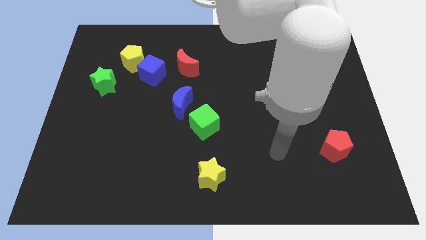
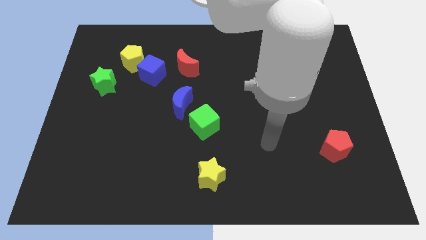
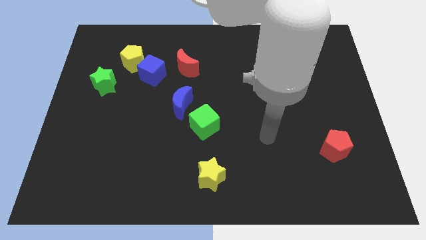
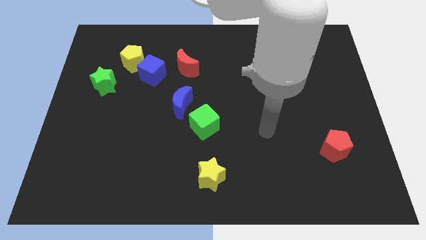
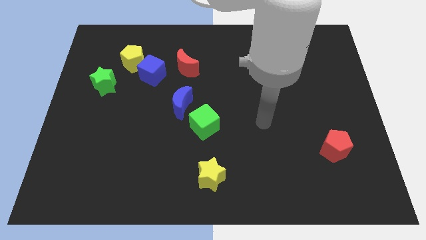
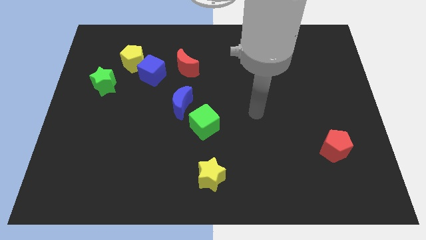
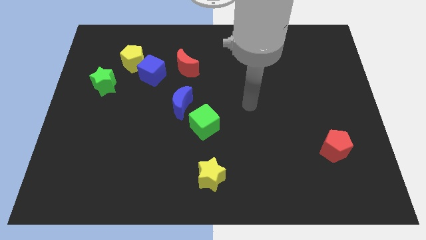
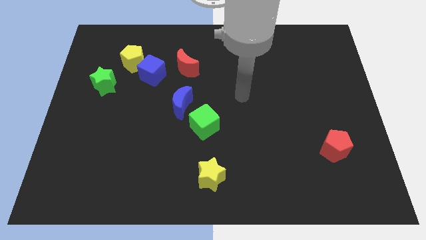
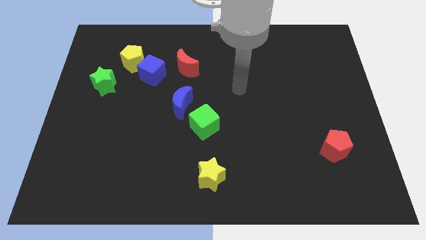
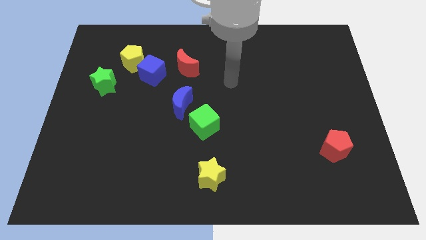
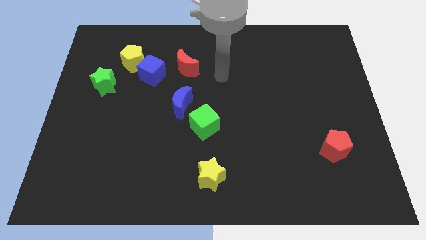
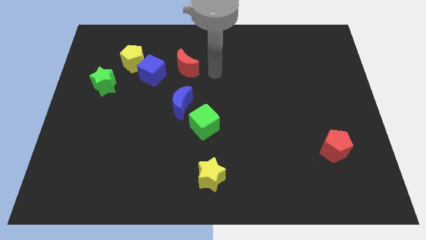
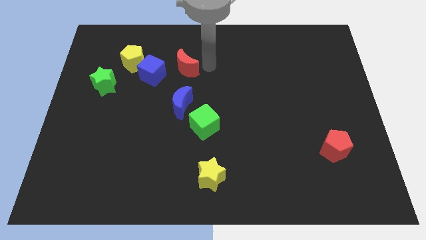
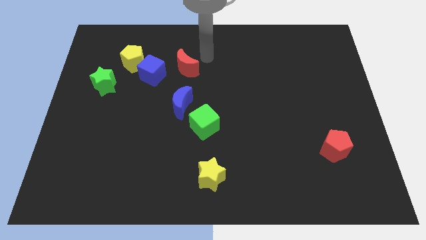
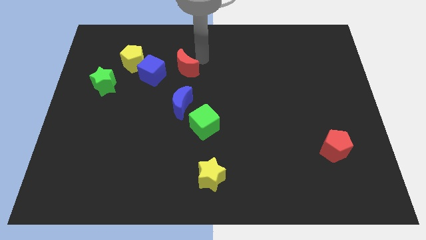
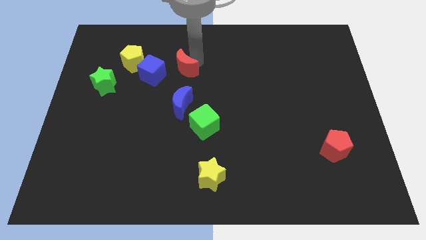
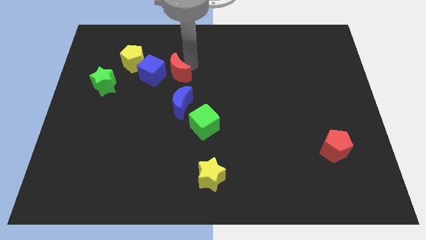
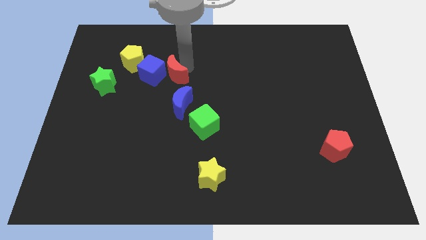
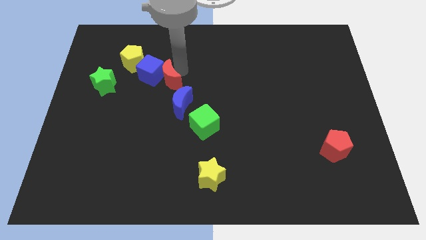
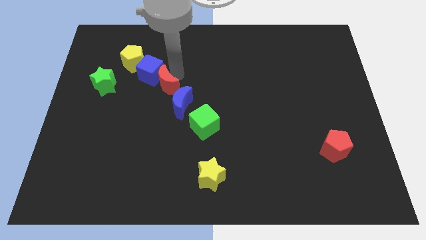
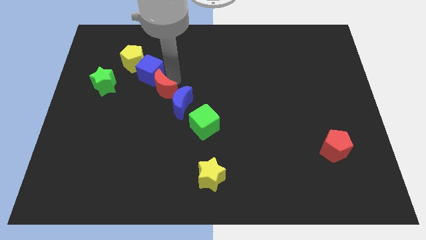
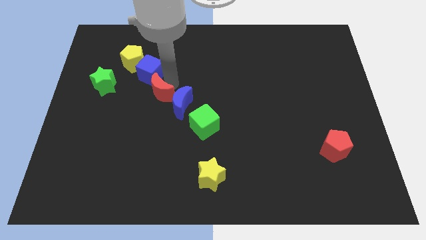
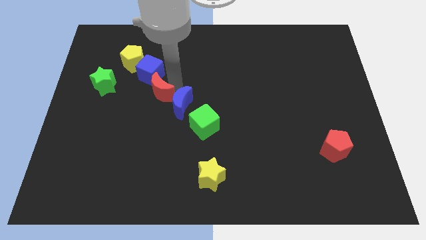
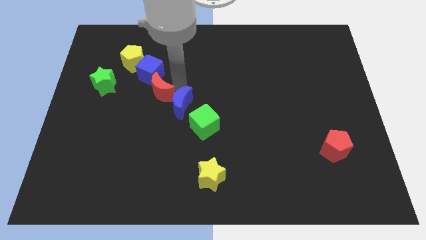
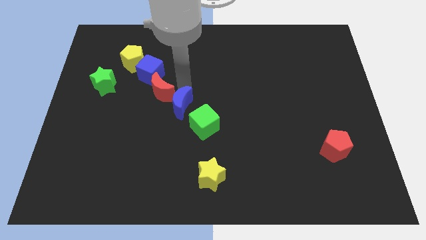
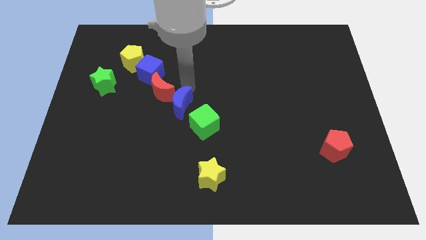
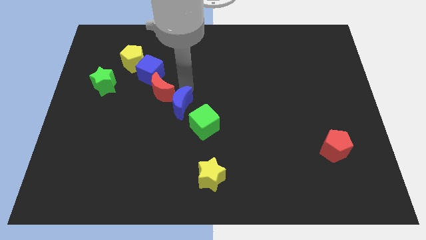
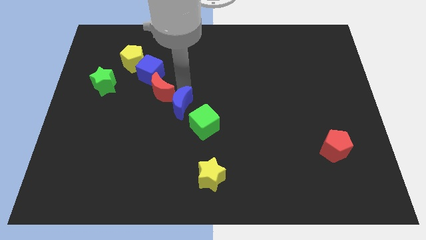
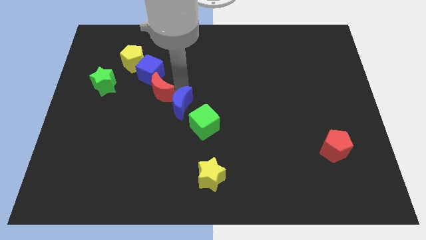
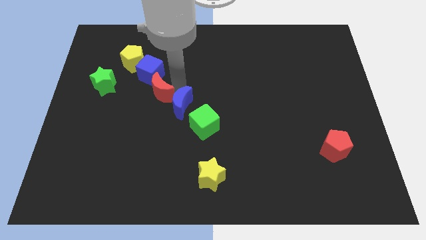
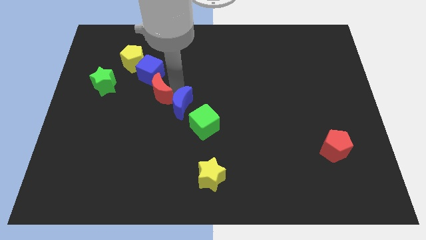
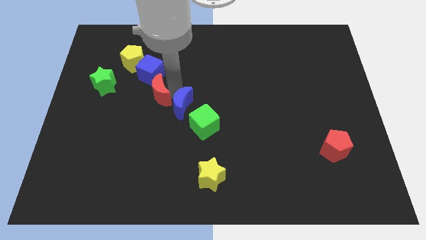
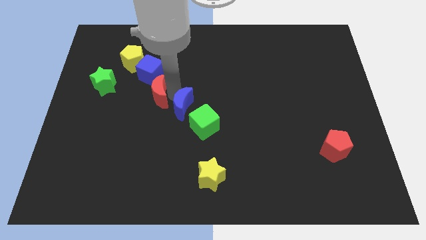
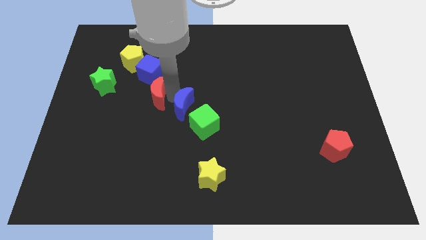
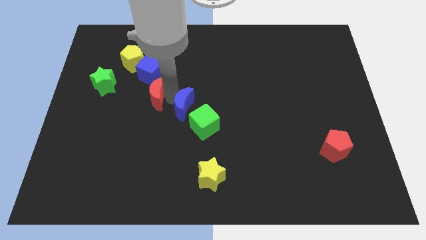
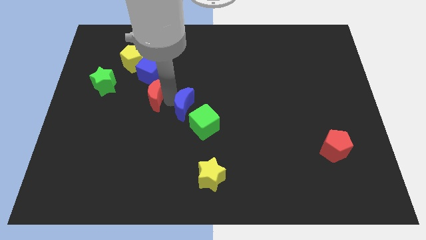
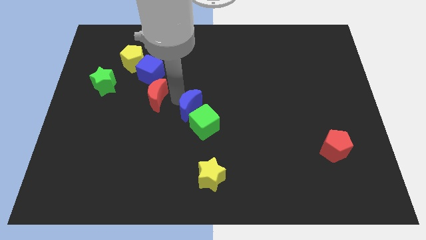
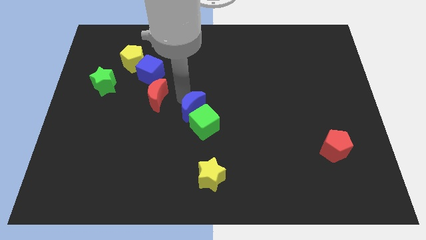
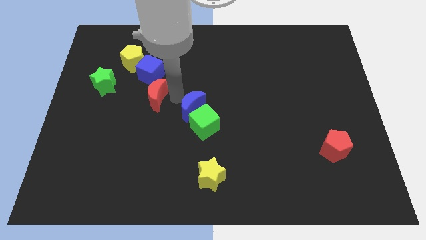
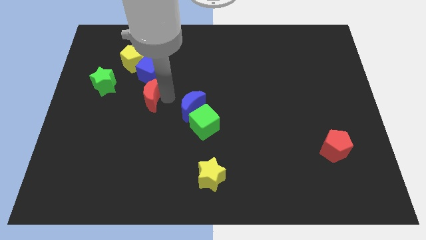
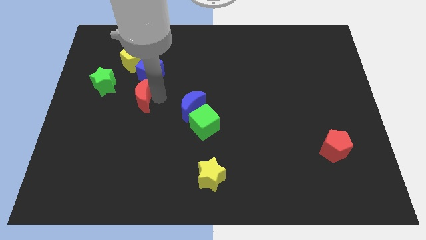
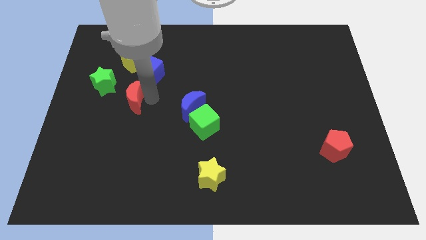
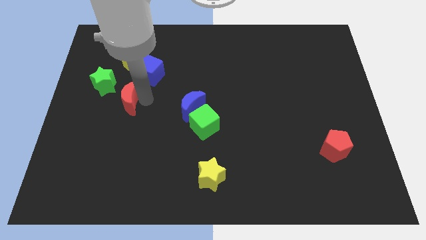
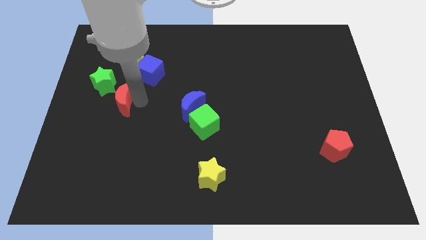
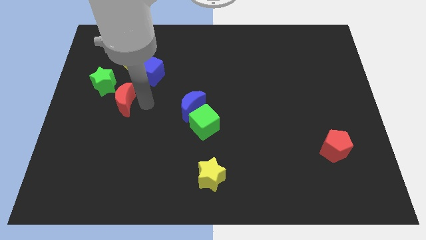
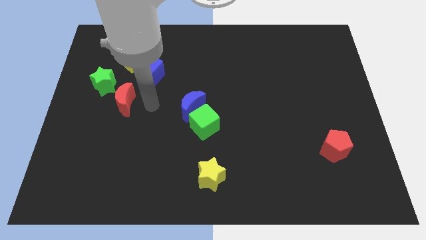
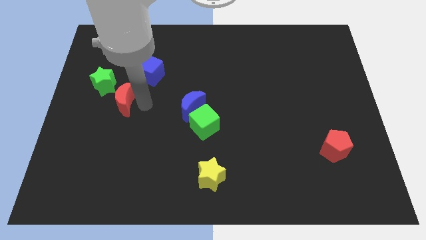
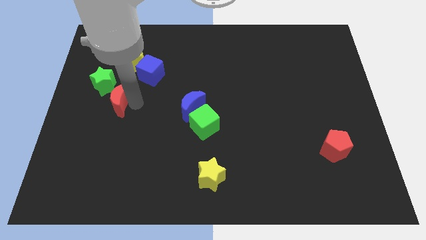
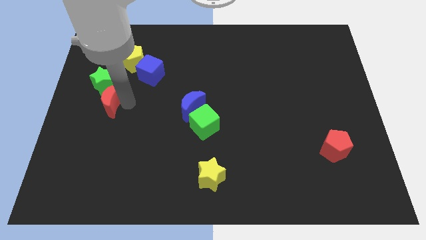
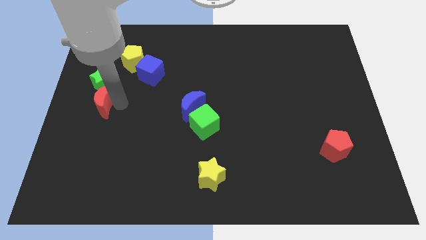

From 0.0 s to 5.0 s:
put the red moon to the left side

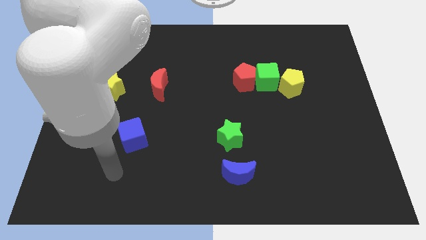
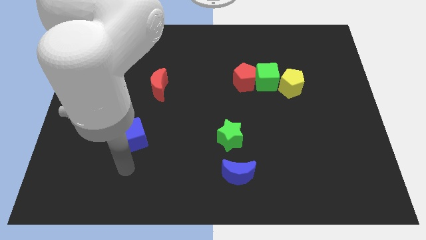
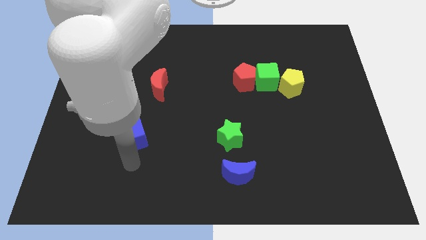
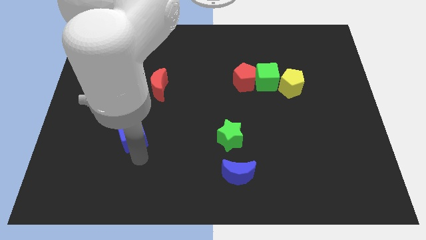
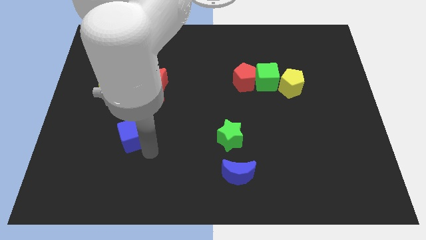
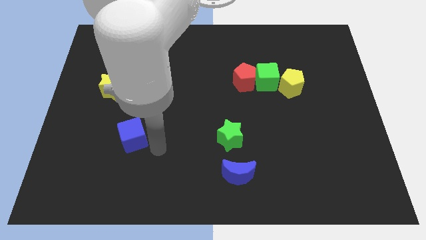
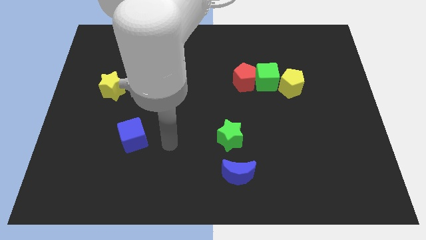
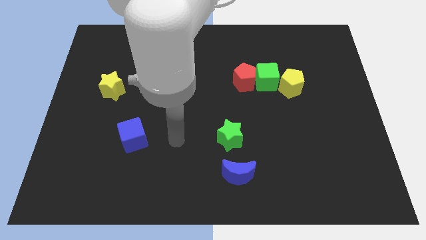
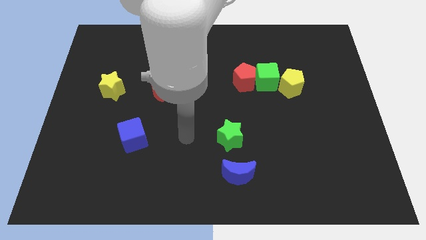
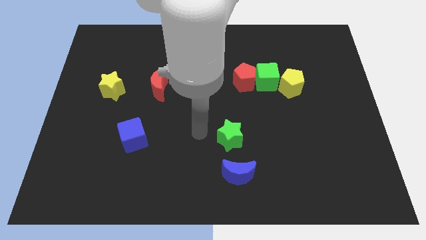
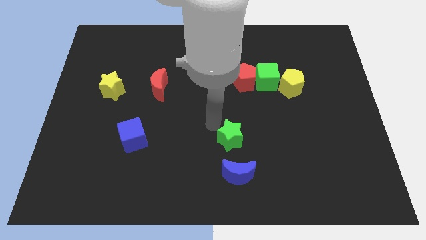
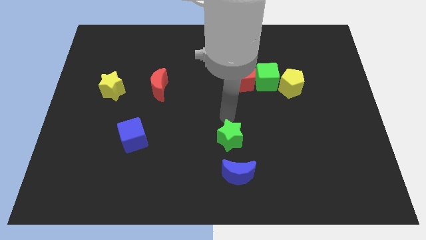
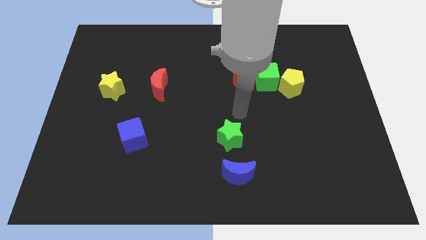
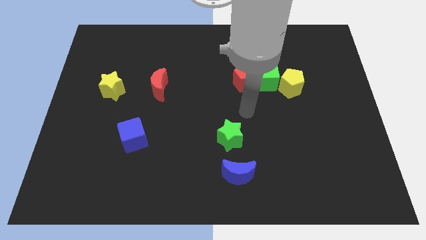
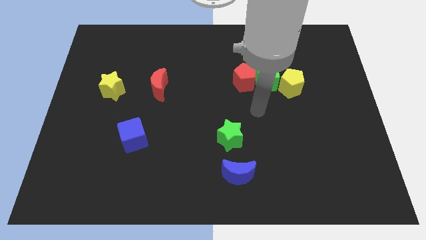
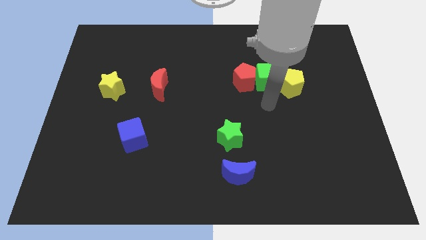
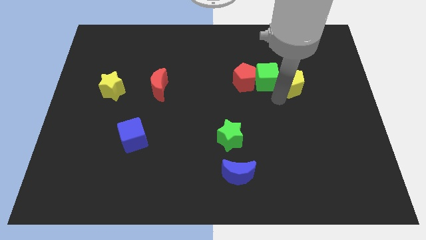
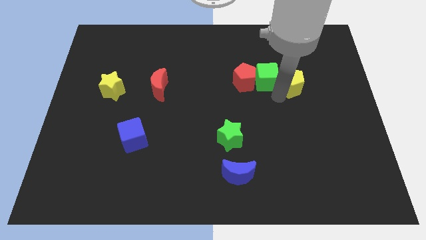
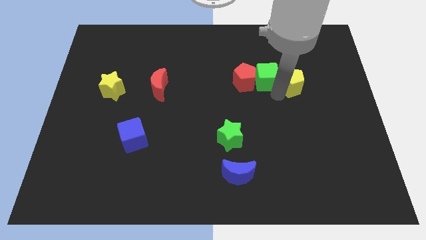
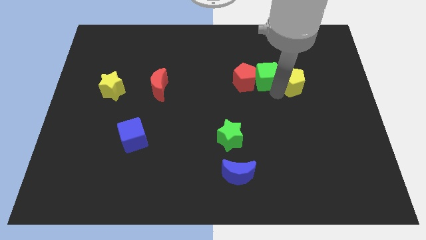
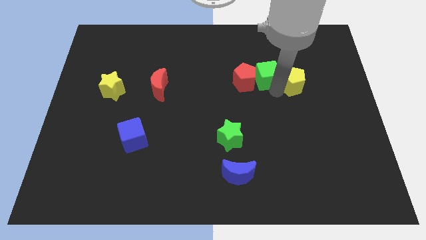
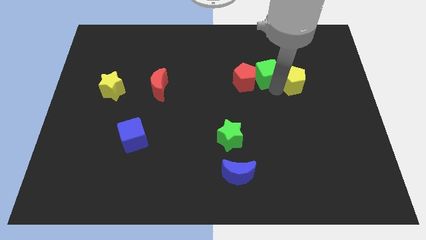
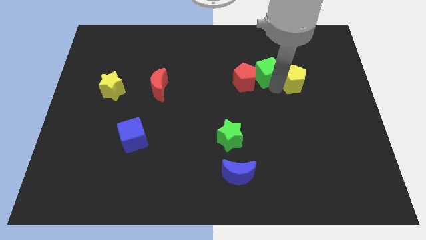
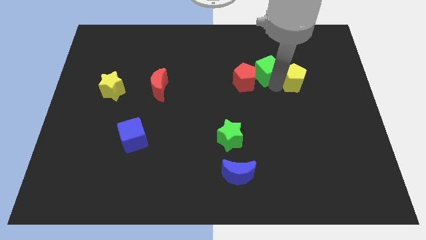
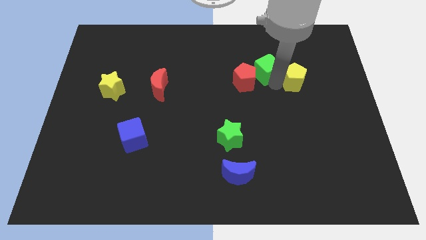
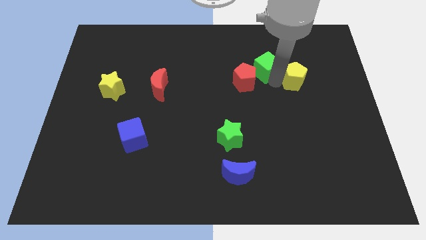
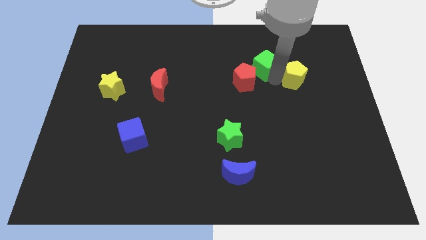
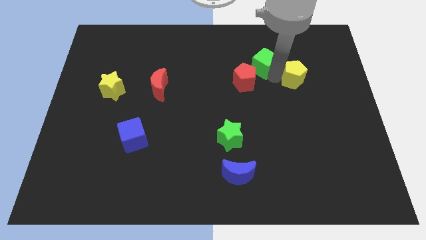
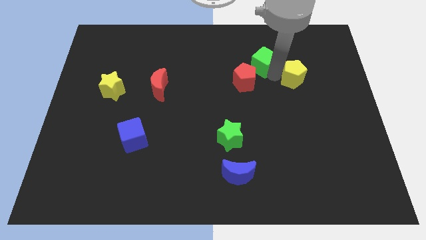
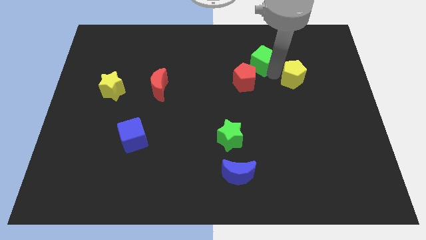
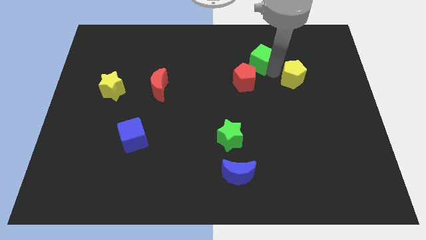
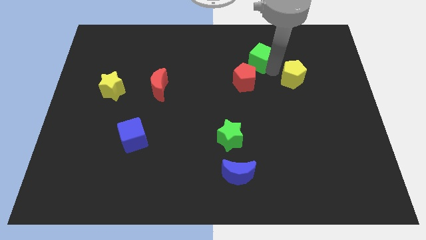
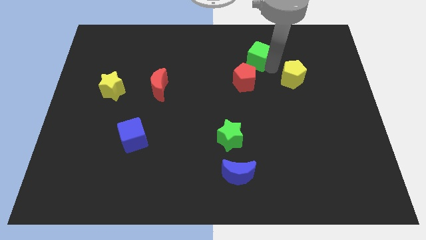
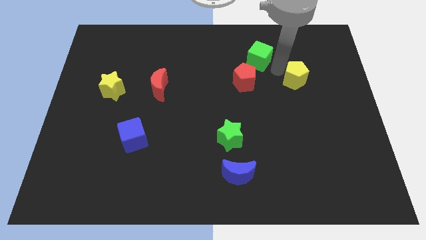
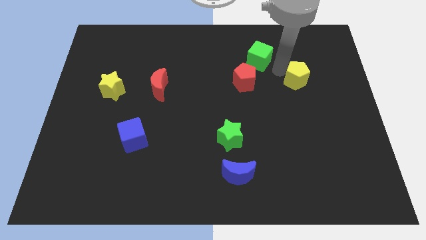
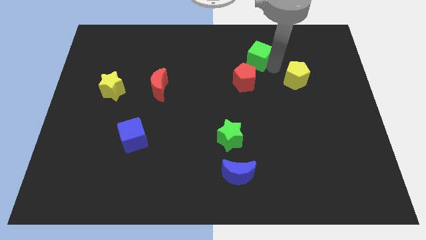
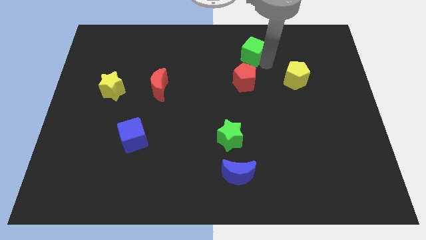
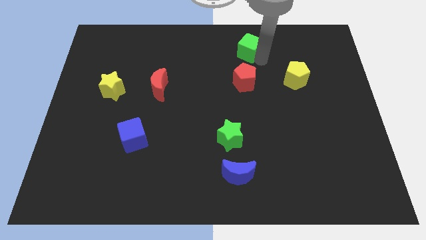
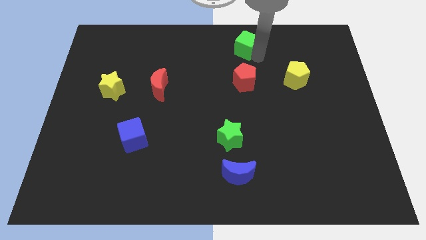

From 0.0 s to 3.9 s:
put the green cube to the towards your base
